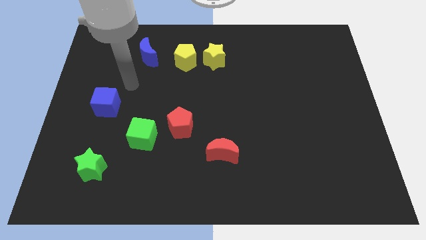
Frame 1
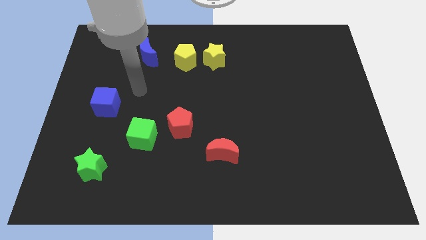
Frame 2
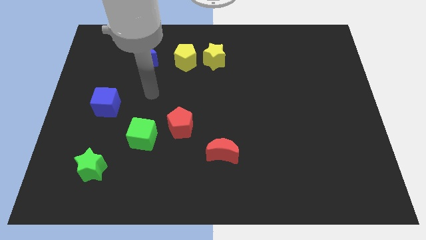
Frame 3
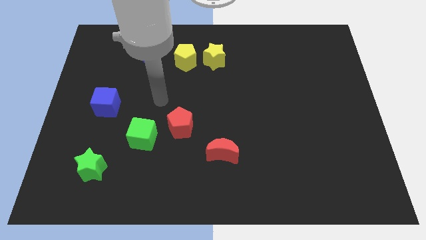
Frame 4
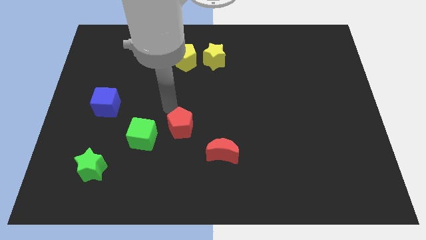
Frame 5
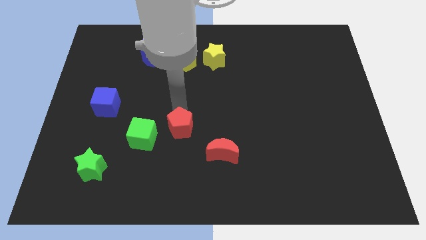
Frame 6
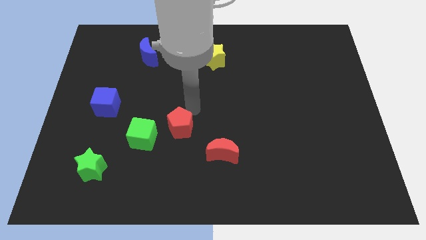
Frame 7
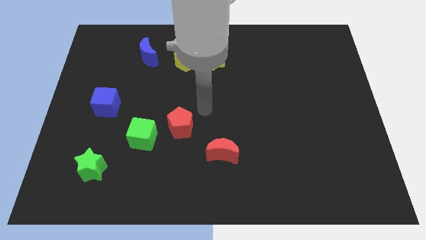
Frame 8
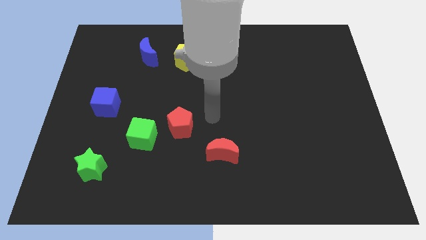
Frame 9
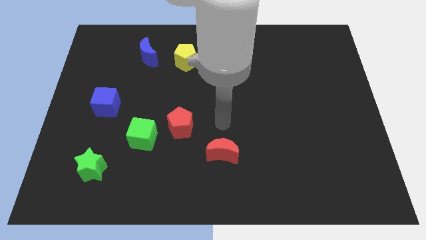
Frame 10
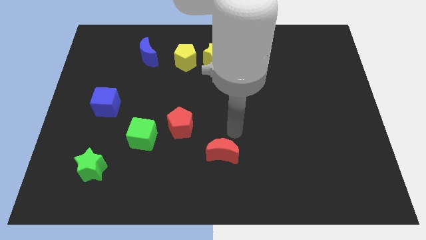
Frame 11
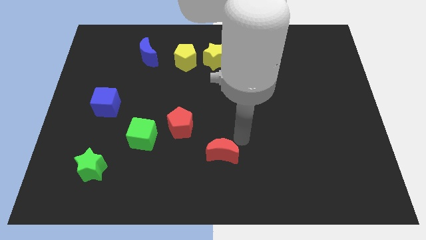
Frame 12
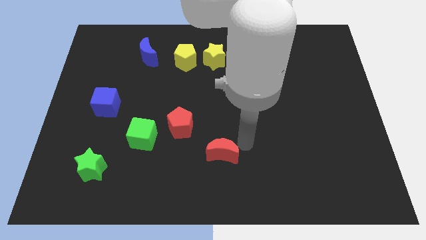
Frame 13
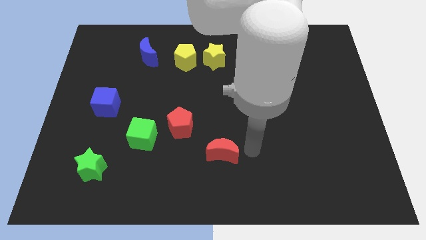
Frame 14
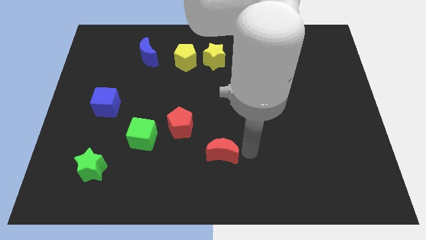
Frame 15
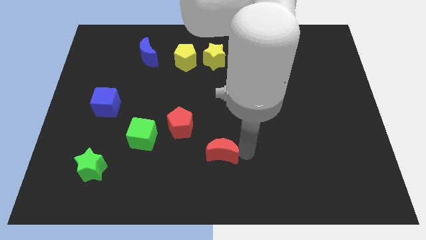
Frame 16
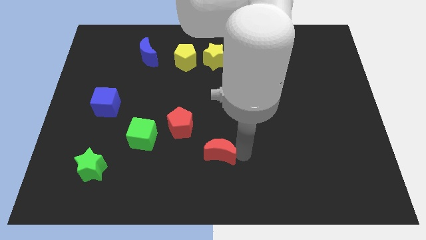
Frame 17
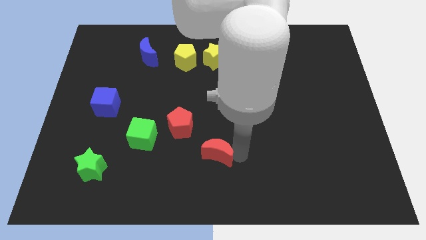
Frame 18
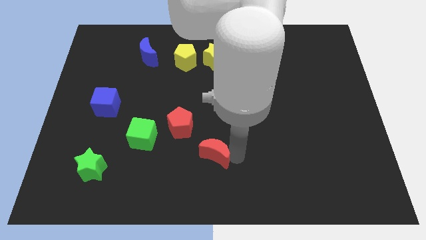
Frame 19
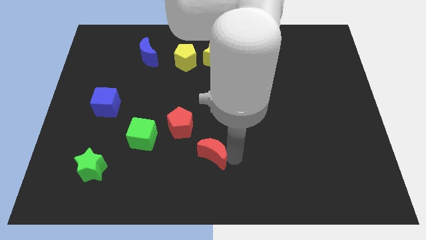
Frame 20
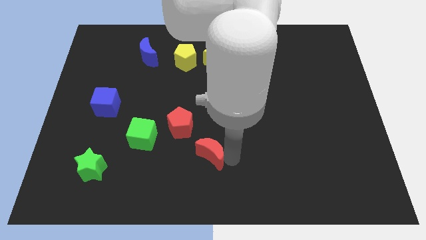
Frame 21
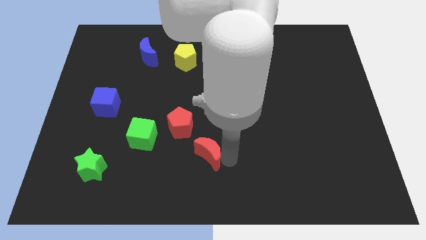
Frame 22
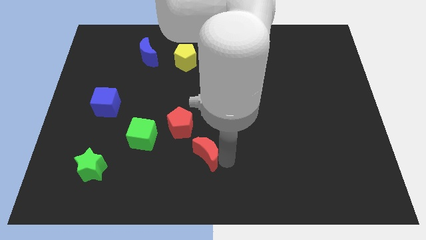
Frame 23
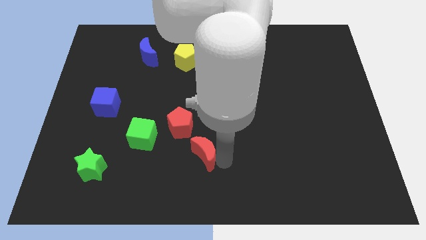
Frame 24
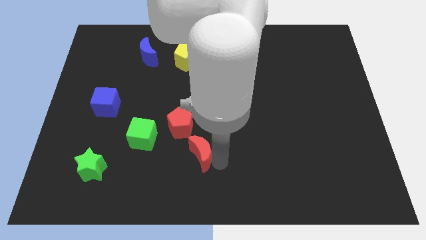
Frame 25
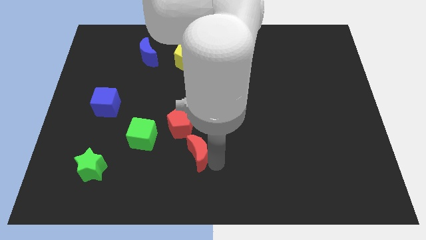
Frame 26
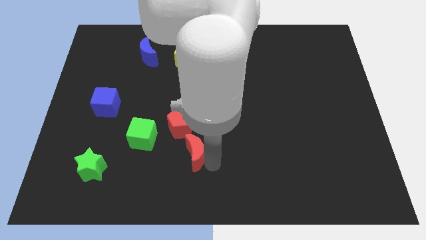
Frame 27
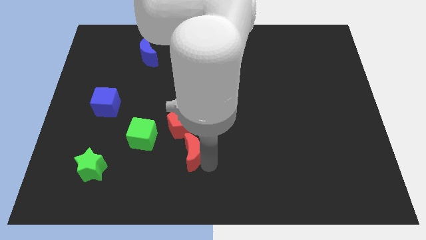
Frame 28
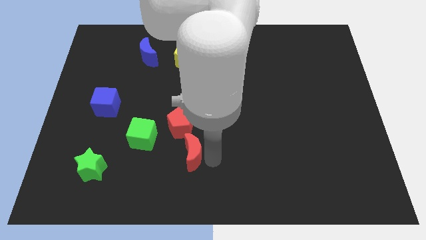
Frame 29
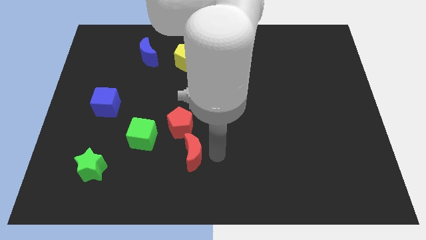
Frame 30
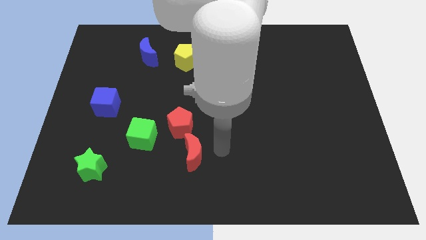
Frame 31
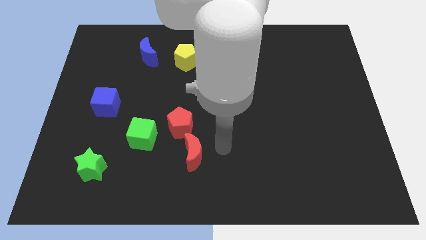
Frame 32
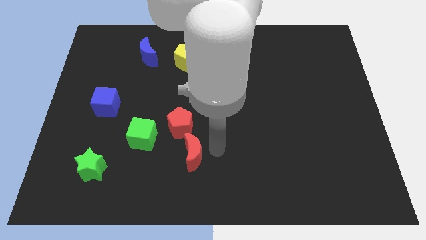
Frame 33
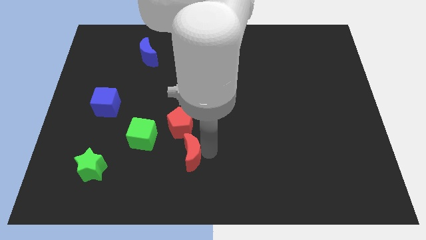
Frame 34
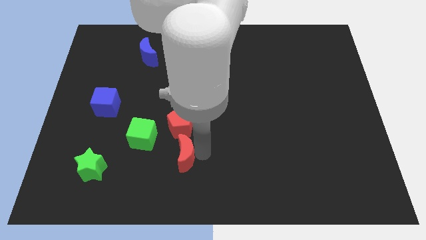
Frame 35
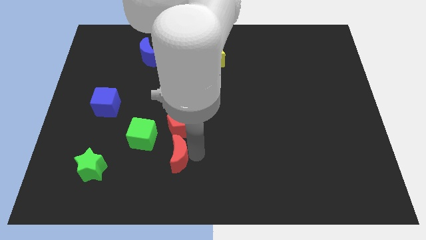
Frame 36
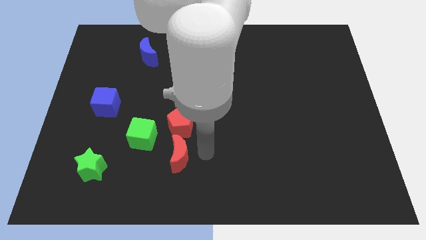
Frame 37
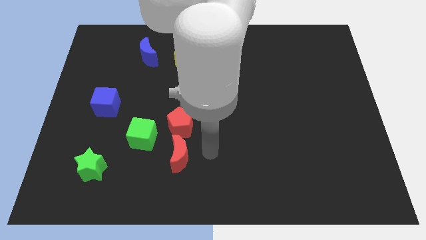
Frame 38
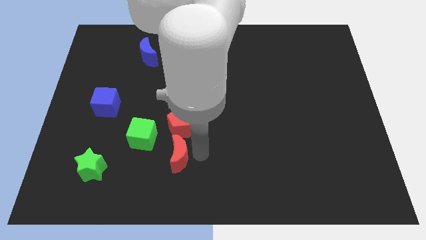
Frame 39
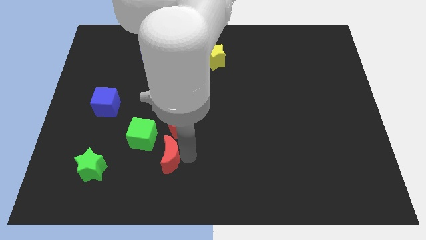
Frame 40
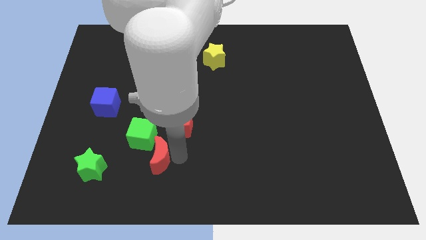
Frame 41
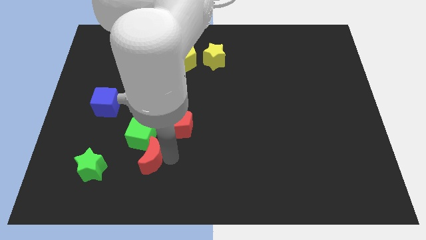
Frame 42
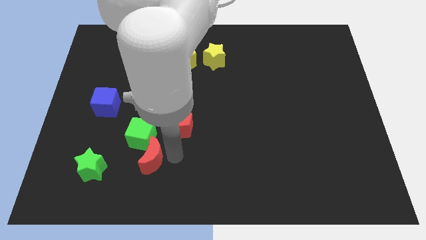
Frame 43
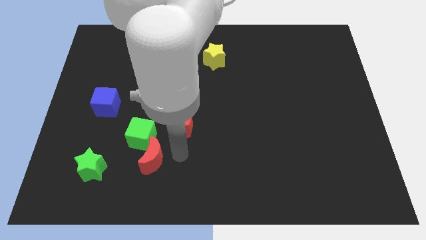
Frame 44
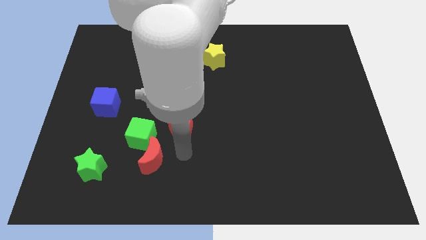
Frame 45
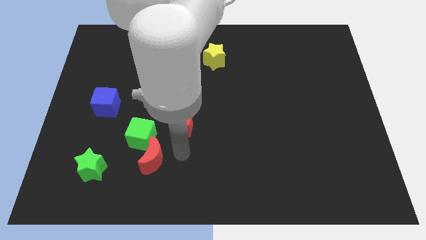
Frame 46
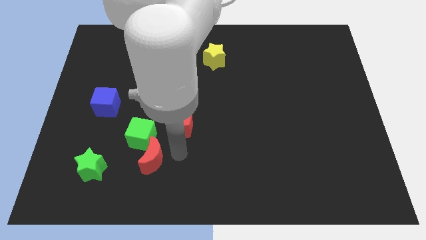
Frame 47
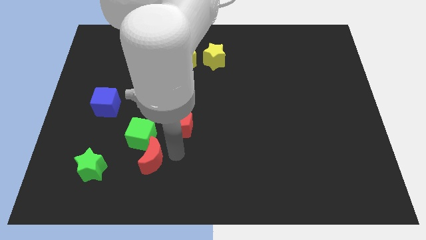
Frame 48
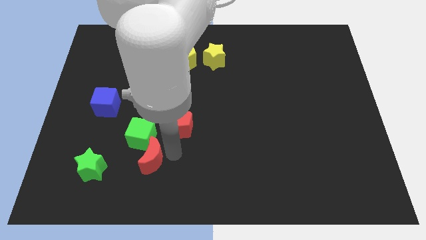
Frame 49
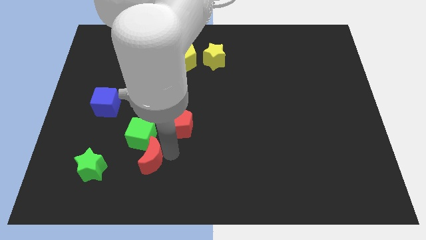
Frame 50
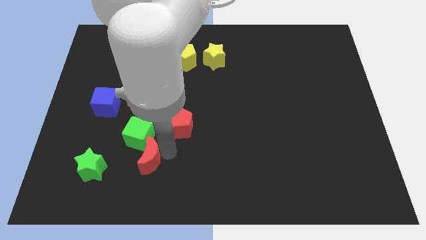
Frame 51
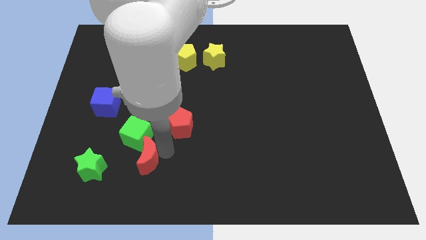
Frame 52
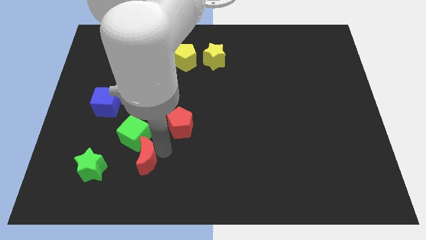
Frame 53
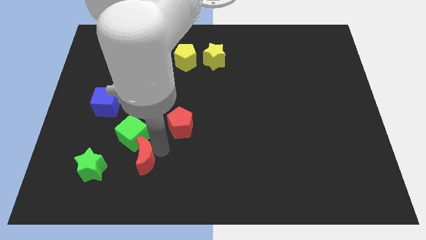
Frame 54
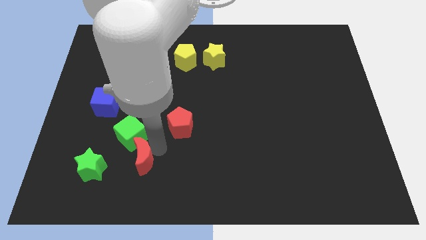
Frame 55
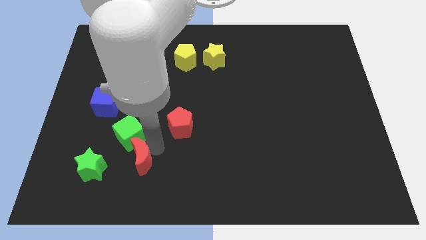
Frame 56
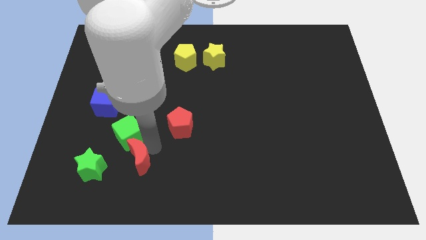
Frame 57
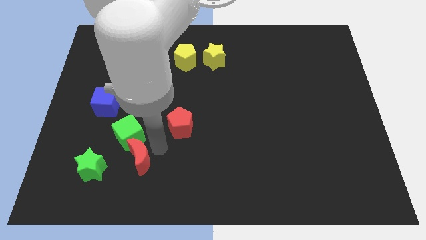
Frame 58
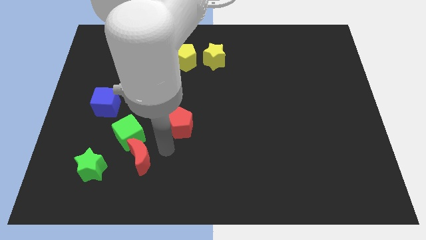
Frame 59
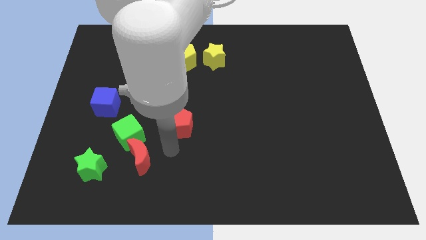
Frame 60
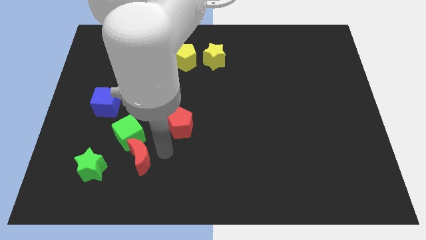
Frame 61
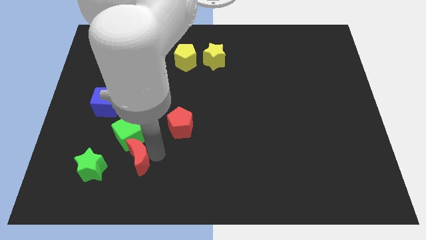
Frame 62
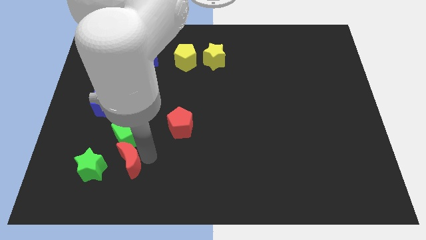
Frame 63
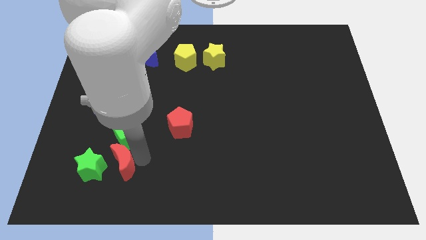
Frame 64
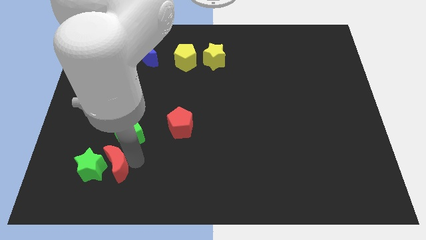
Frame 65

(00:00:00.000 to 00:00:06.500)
slide the red moon towards the green star

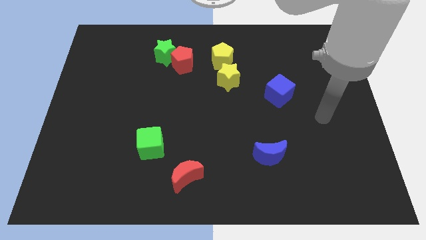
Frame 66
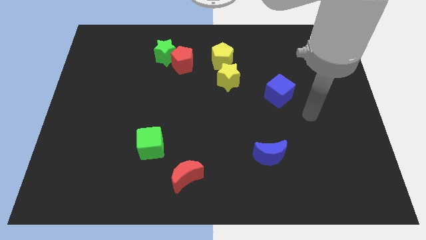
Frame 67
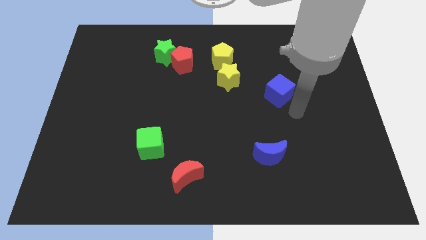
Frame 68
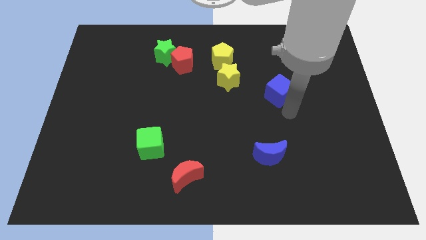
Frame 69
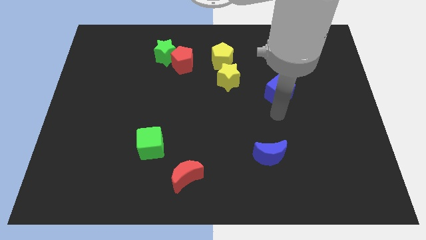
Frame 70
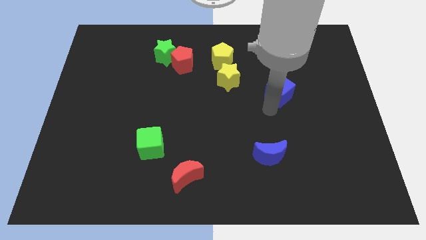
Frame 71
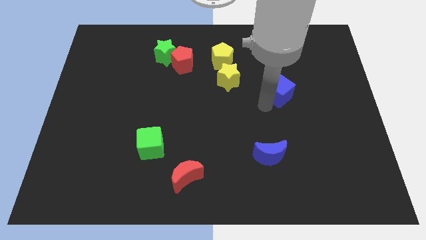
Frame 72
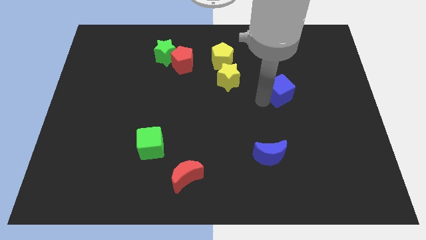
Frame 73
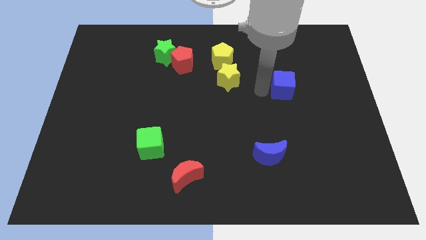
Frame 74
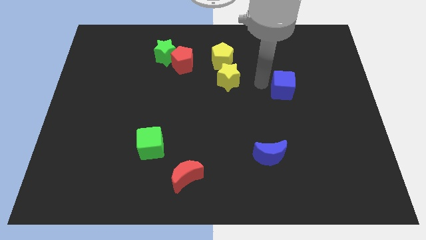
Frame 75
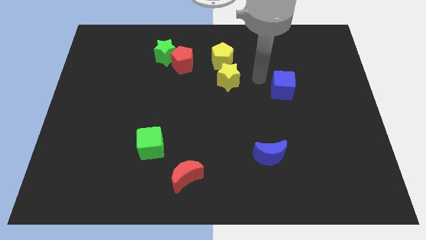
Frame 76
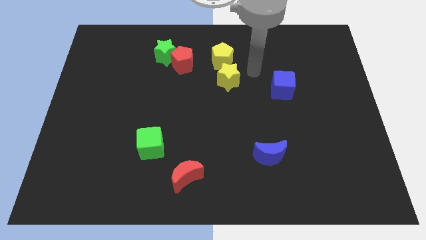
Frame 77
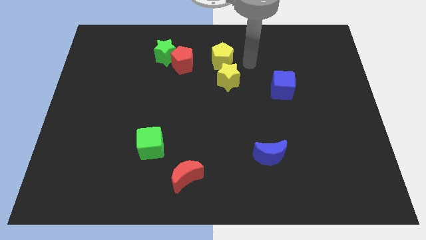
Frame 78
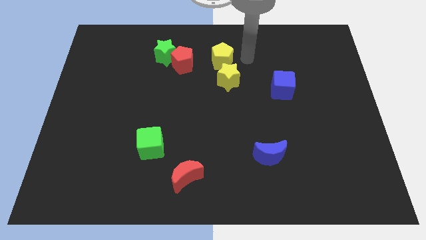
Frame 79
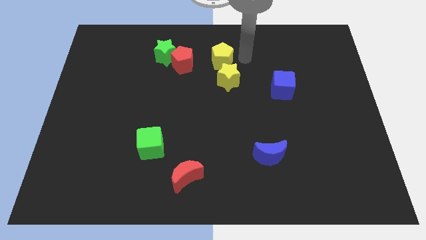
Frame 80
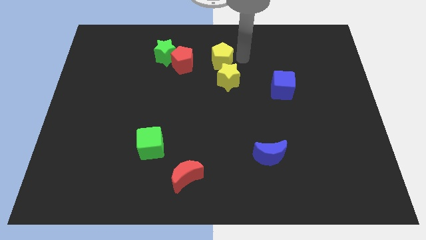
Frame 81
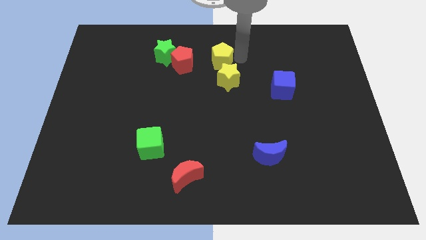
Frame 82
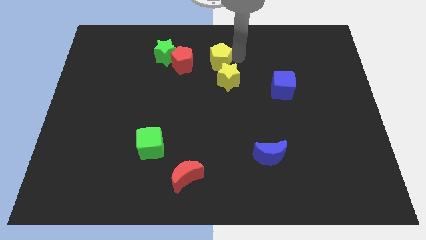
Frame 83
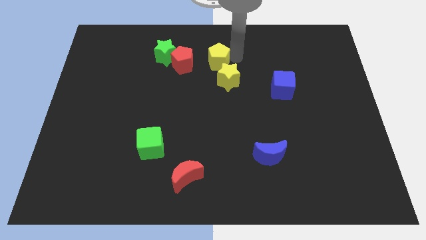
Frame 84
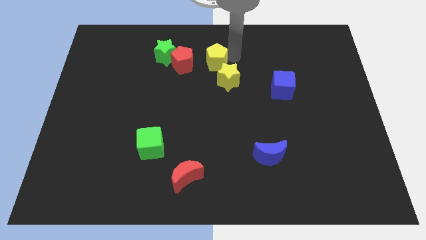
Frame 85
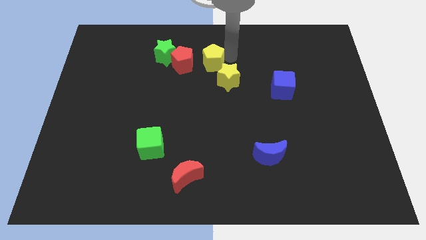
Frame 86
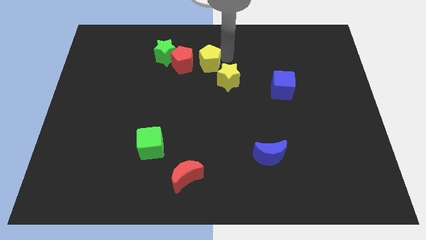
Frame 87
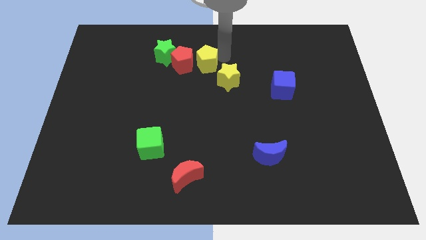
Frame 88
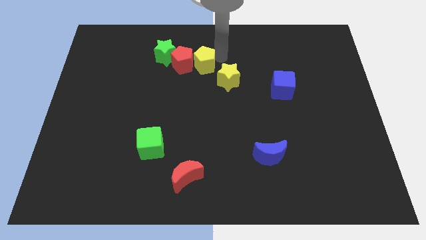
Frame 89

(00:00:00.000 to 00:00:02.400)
move the yellow pentagon close to the red pentagon
